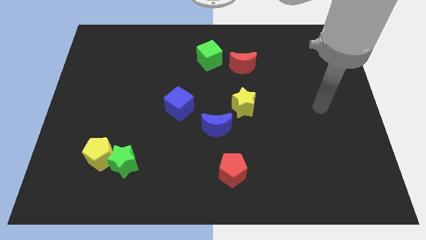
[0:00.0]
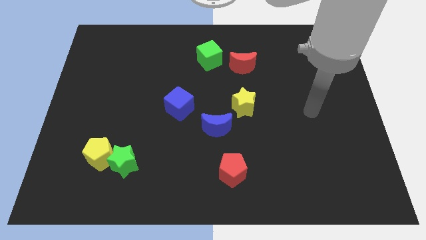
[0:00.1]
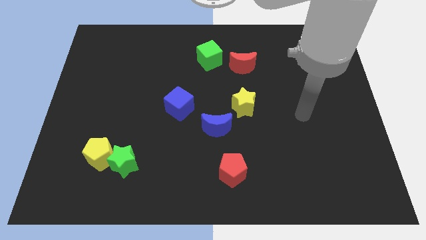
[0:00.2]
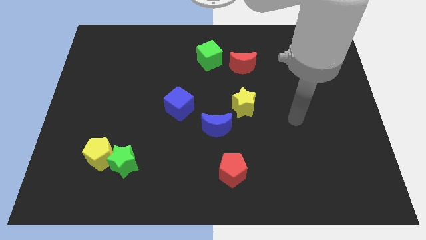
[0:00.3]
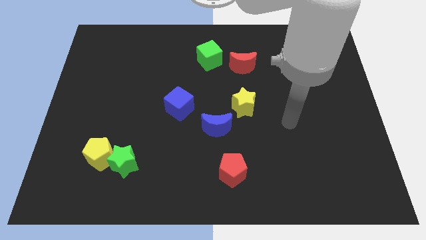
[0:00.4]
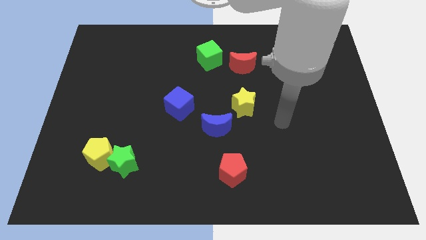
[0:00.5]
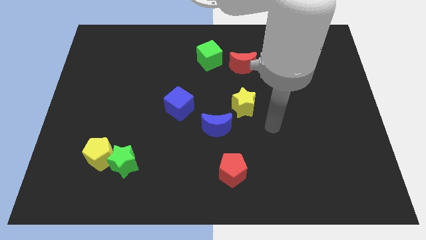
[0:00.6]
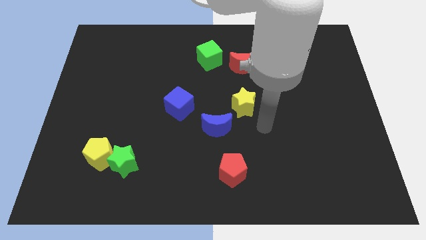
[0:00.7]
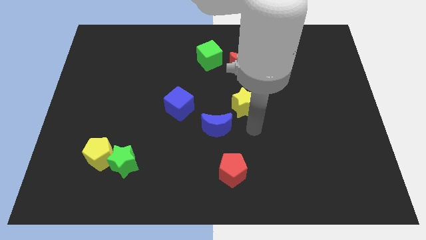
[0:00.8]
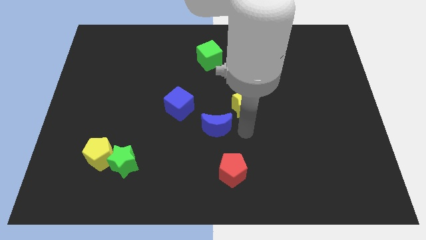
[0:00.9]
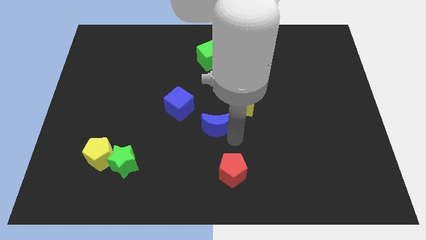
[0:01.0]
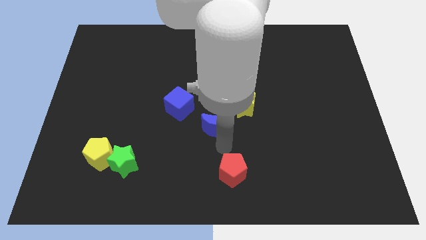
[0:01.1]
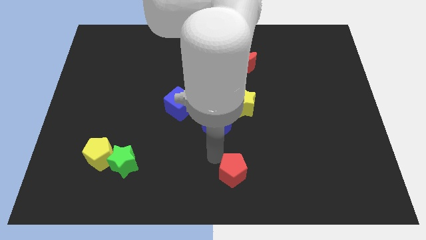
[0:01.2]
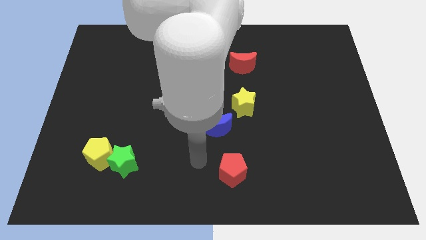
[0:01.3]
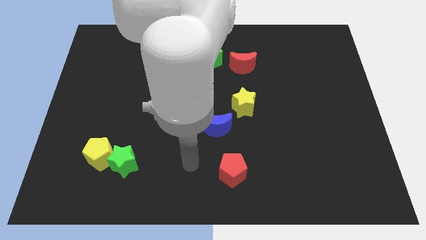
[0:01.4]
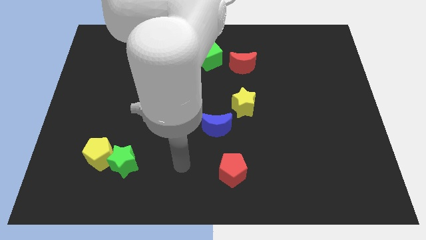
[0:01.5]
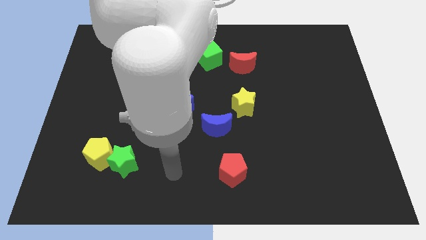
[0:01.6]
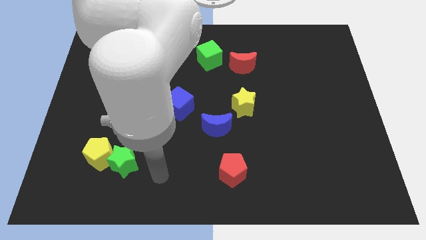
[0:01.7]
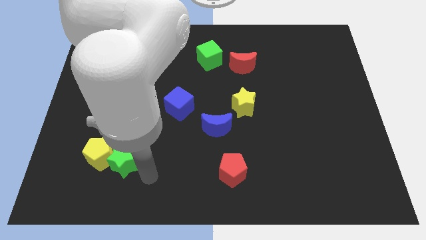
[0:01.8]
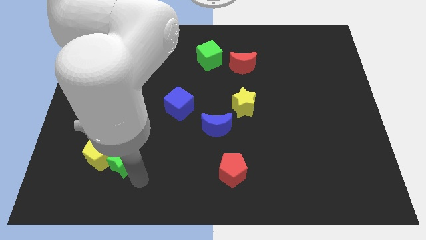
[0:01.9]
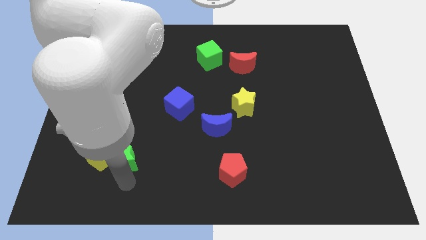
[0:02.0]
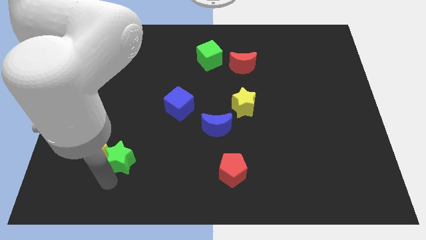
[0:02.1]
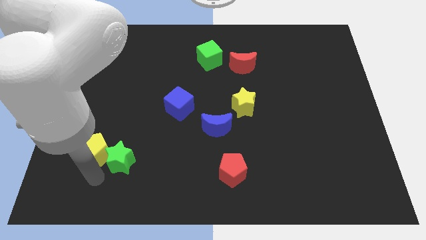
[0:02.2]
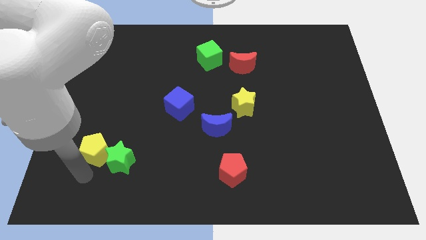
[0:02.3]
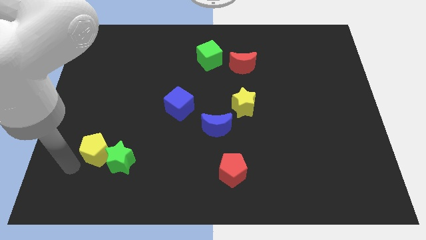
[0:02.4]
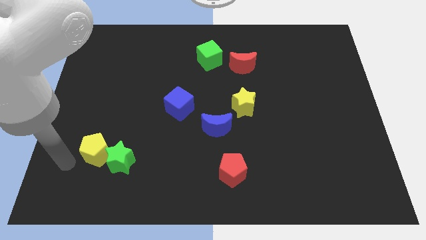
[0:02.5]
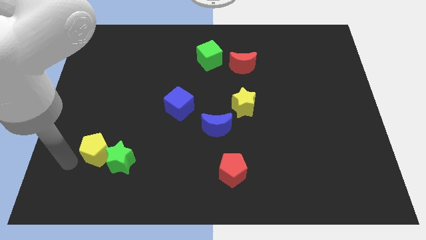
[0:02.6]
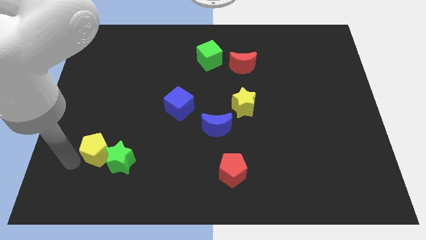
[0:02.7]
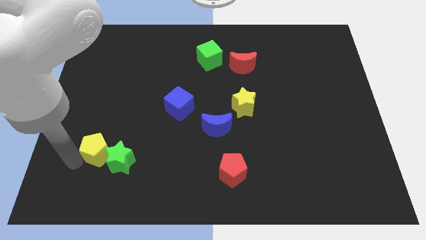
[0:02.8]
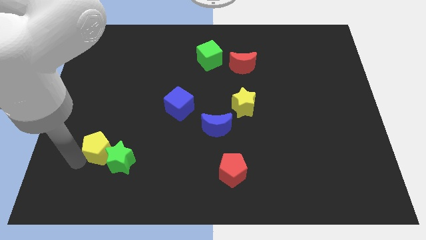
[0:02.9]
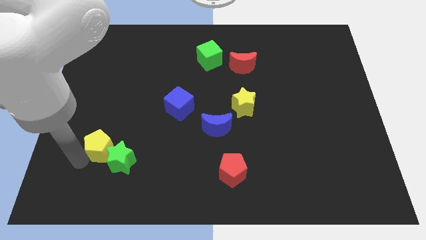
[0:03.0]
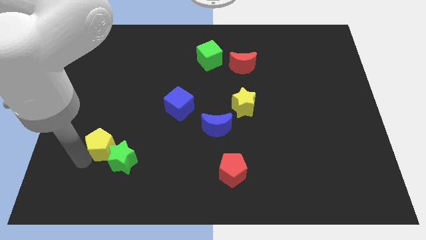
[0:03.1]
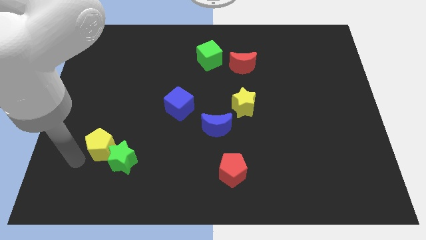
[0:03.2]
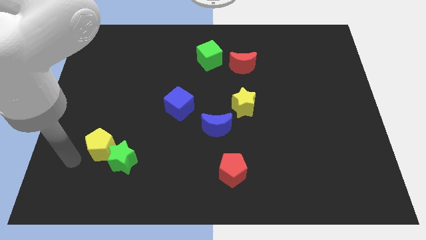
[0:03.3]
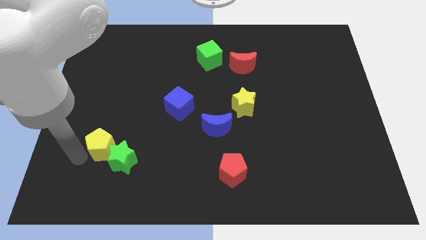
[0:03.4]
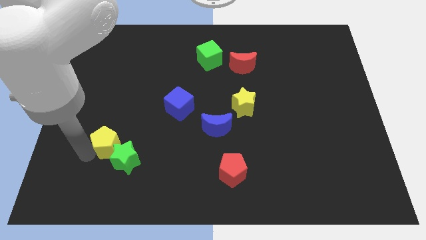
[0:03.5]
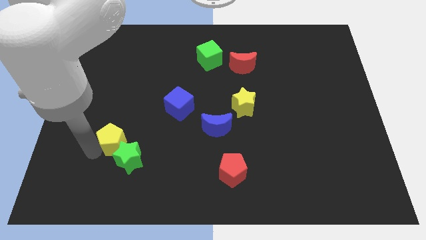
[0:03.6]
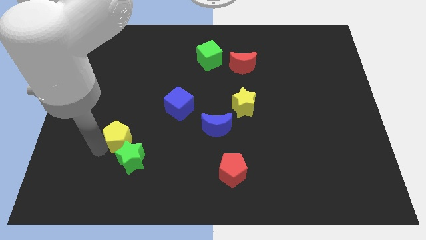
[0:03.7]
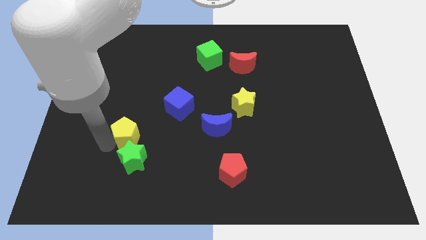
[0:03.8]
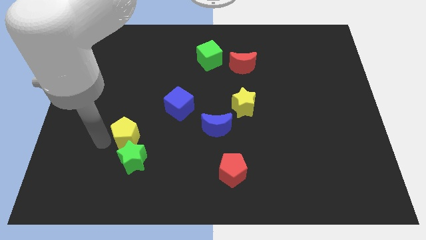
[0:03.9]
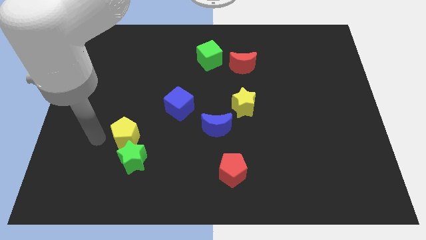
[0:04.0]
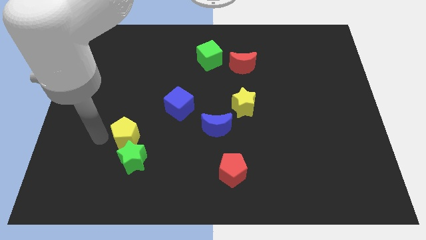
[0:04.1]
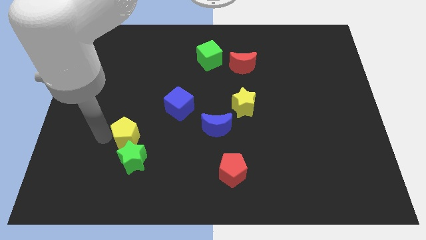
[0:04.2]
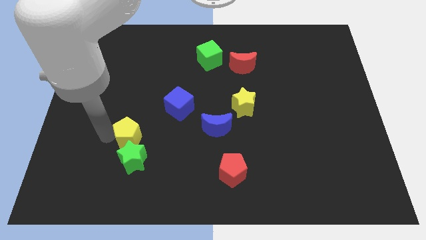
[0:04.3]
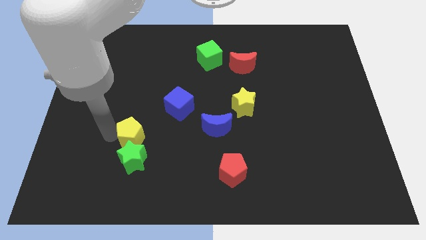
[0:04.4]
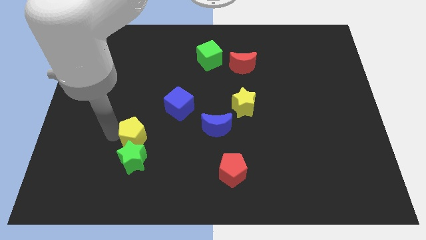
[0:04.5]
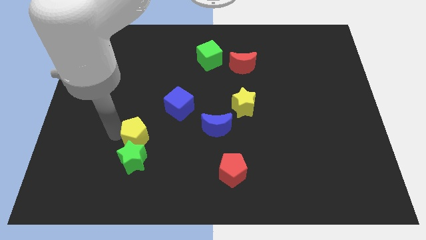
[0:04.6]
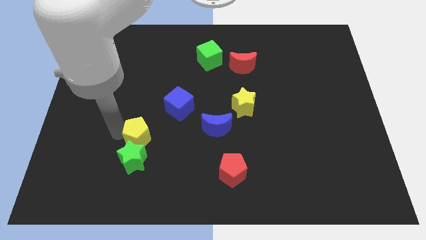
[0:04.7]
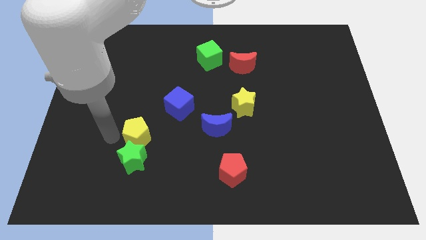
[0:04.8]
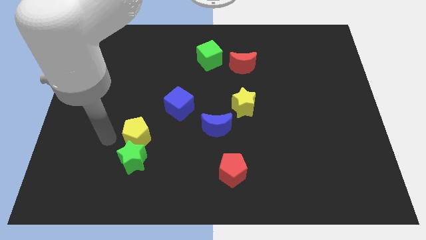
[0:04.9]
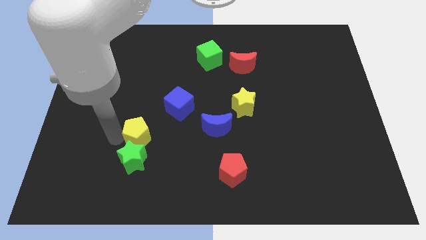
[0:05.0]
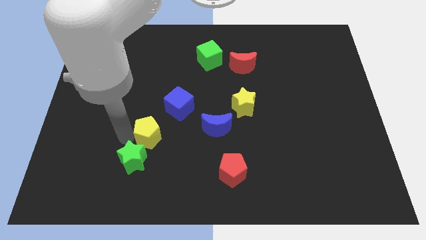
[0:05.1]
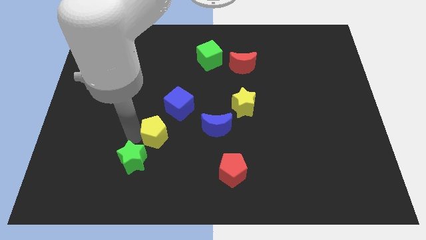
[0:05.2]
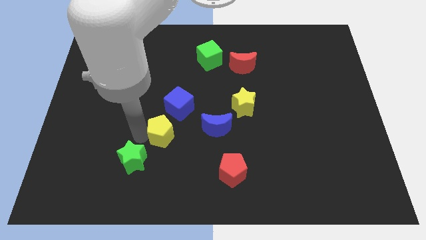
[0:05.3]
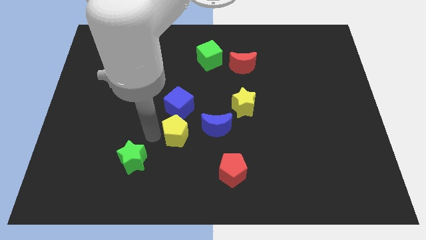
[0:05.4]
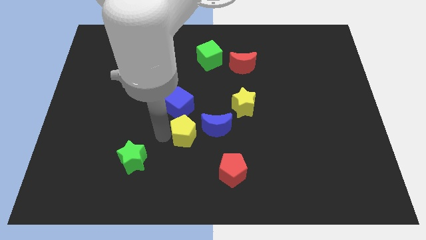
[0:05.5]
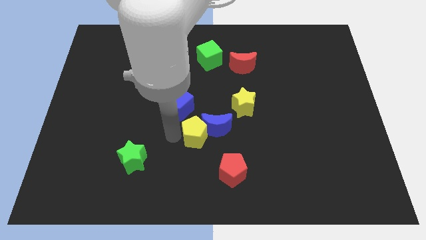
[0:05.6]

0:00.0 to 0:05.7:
put the yellow pentagon close to the blue moon

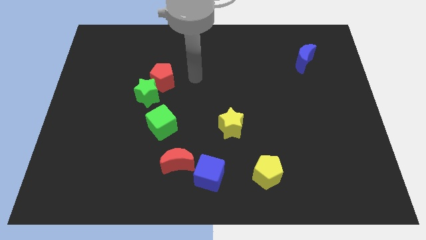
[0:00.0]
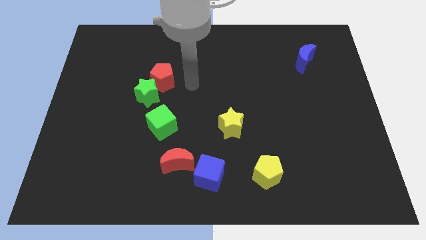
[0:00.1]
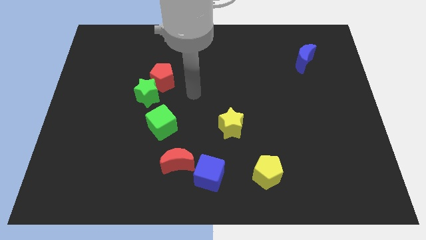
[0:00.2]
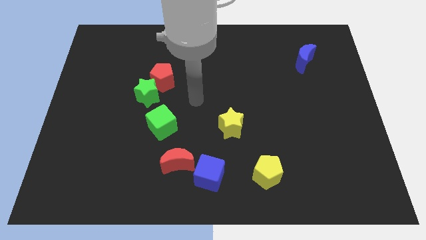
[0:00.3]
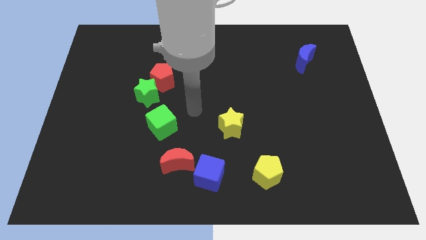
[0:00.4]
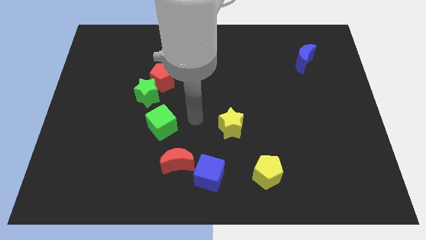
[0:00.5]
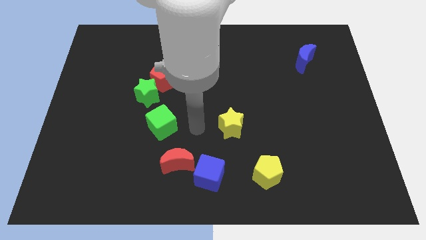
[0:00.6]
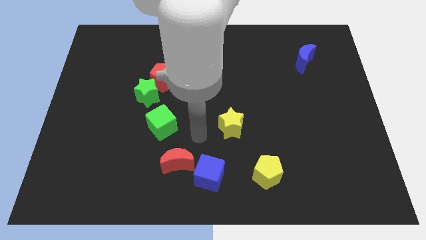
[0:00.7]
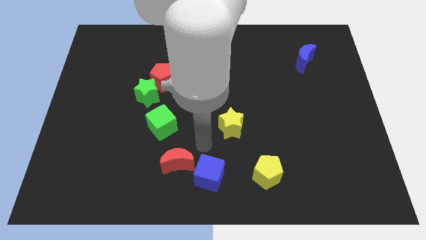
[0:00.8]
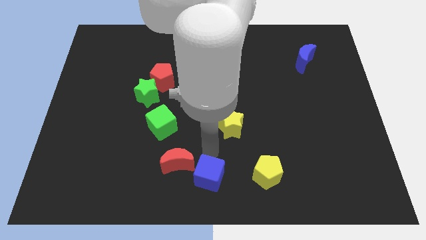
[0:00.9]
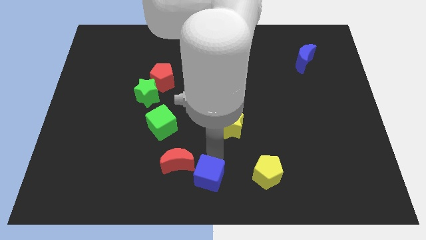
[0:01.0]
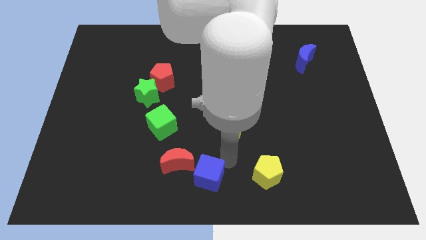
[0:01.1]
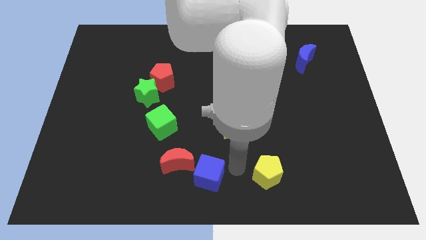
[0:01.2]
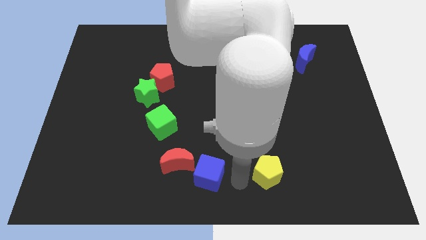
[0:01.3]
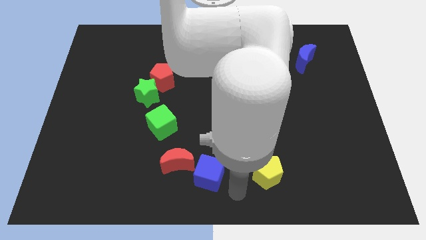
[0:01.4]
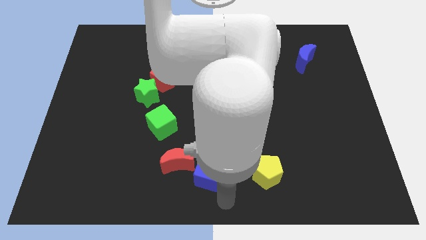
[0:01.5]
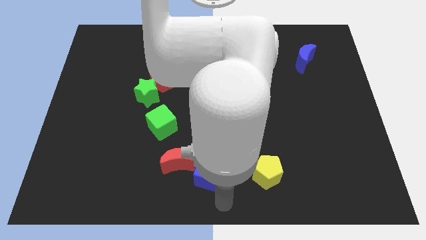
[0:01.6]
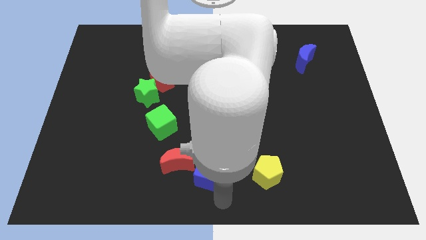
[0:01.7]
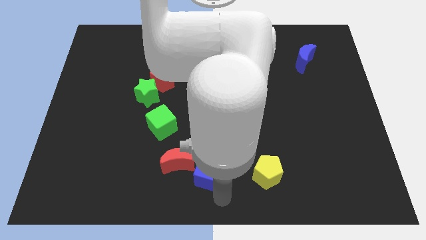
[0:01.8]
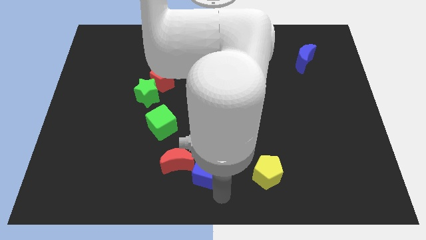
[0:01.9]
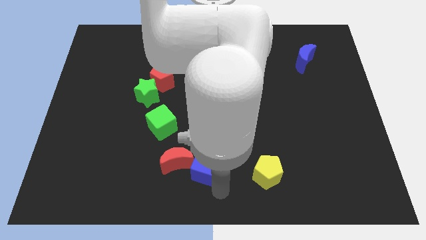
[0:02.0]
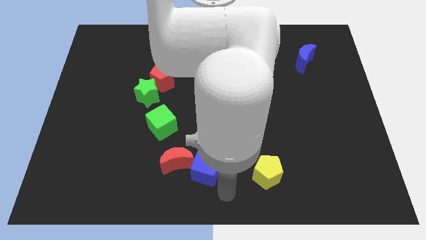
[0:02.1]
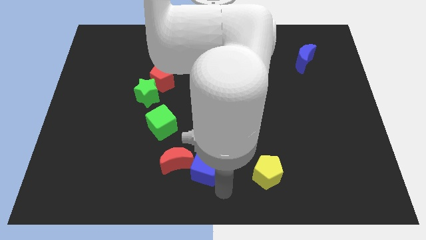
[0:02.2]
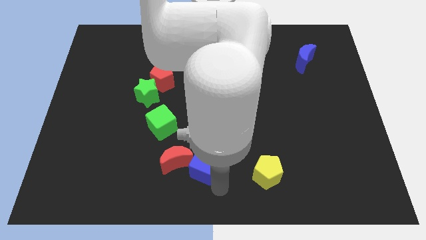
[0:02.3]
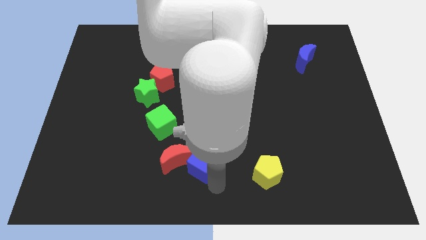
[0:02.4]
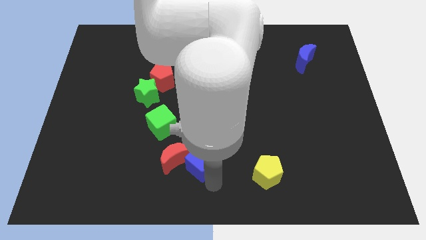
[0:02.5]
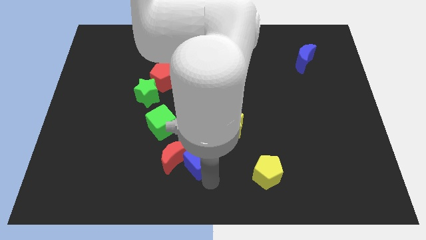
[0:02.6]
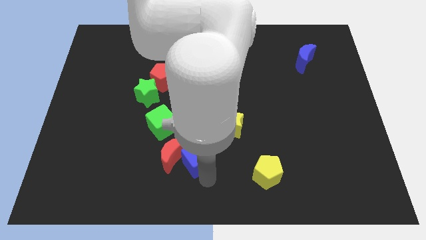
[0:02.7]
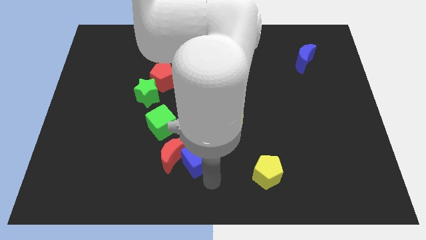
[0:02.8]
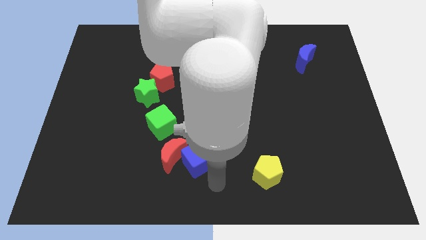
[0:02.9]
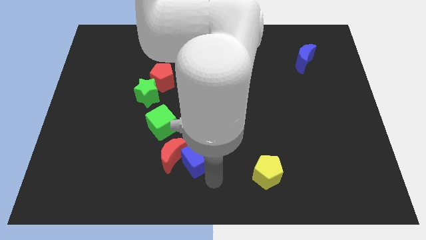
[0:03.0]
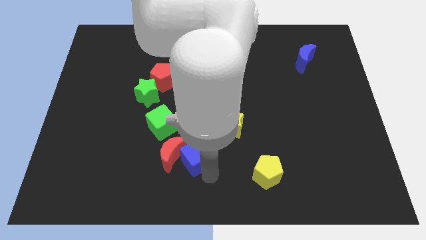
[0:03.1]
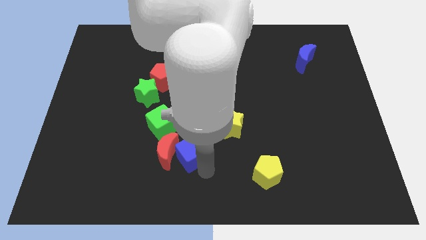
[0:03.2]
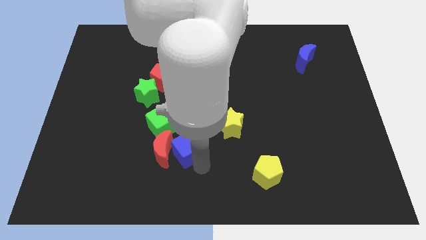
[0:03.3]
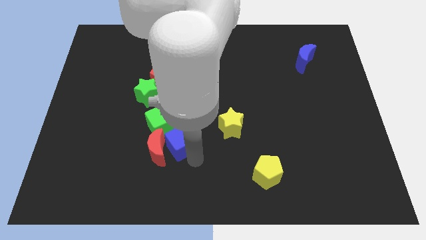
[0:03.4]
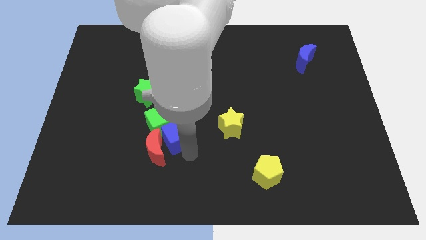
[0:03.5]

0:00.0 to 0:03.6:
put the blue cube next to the green cube
